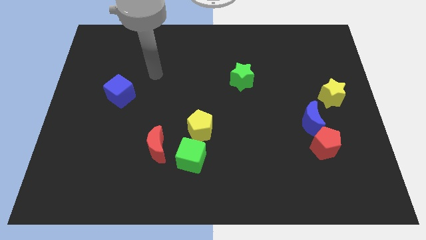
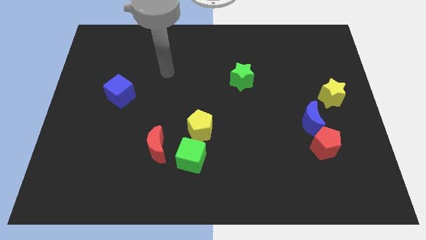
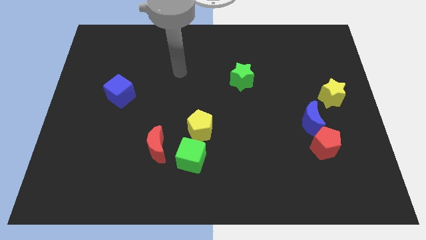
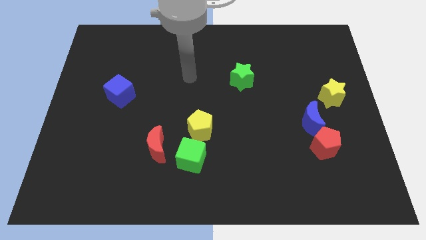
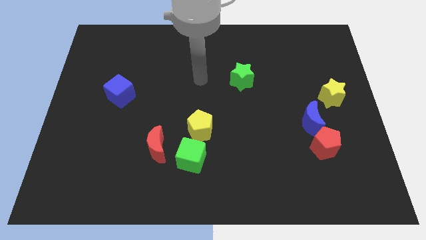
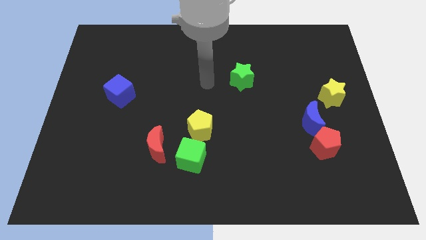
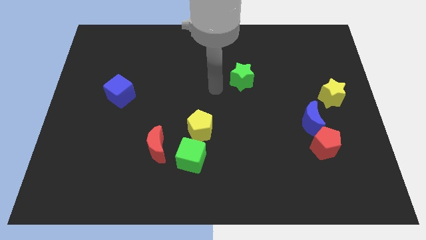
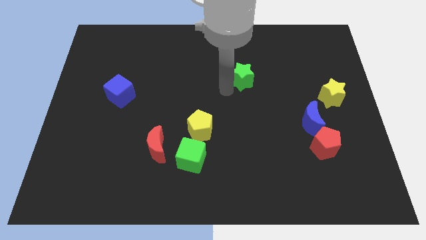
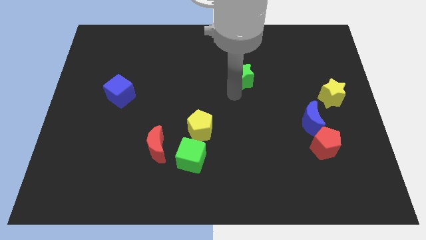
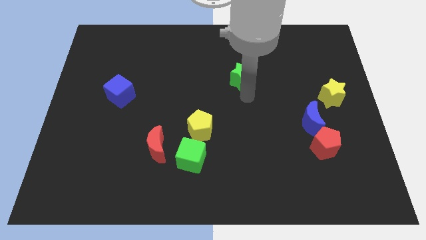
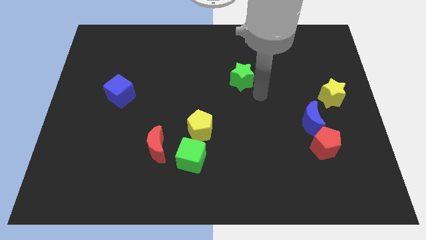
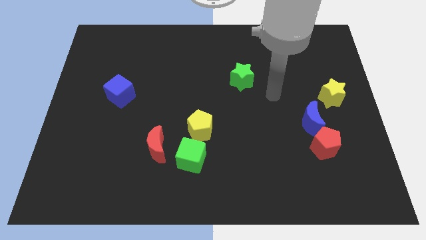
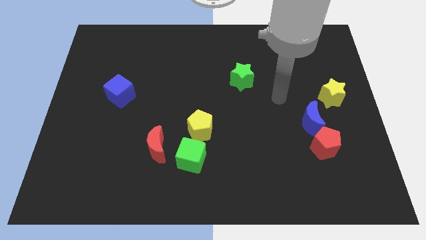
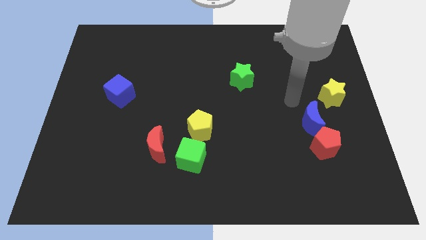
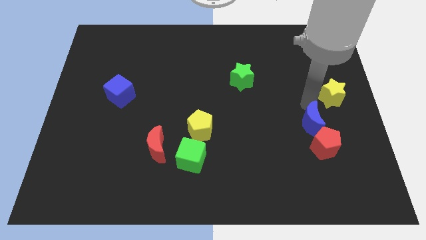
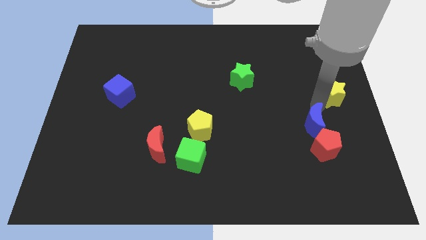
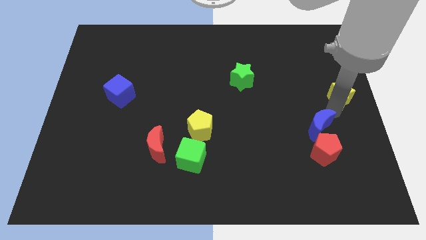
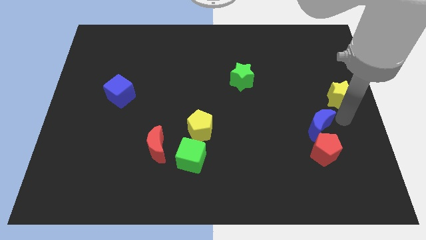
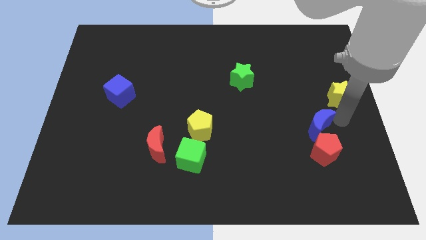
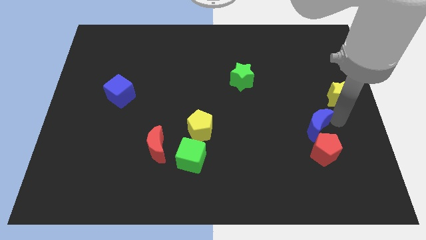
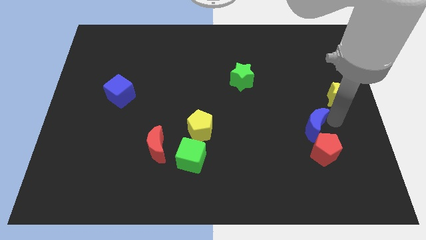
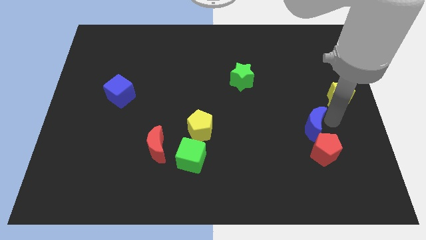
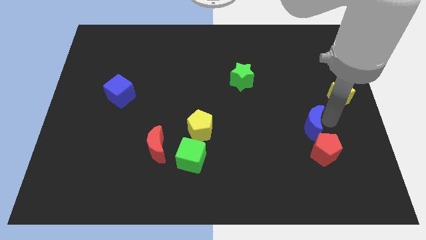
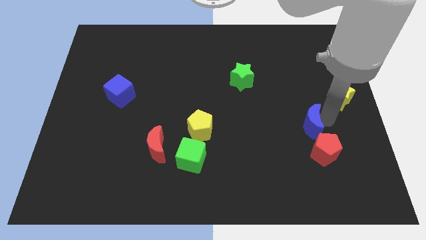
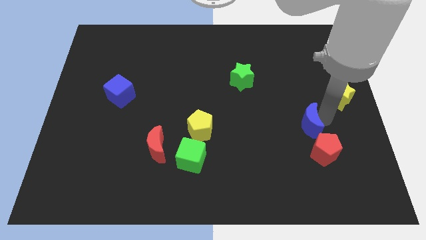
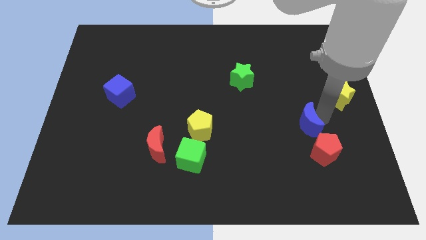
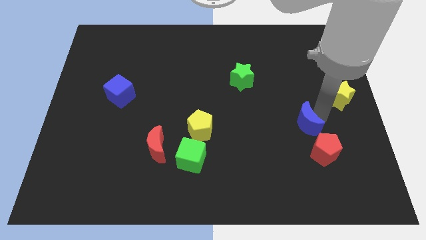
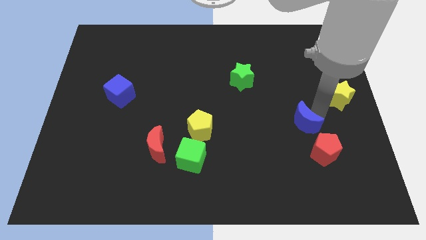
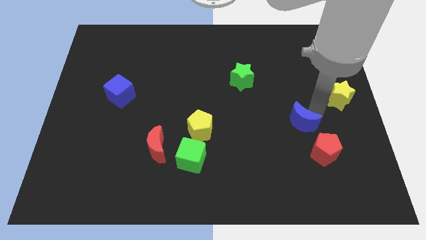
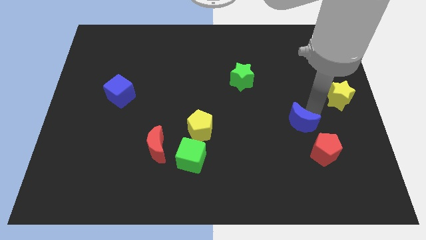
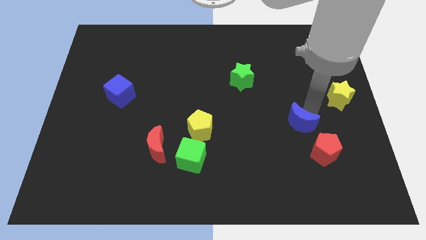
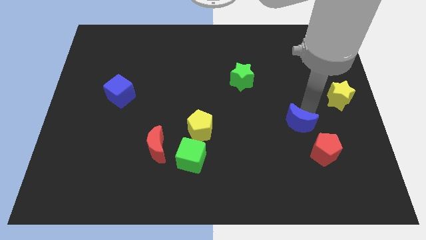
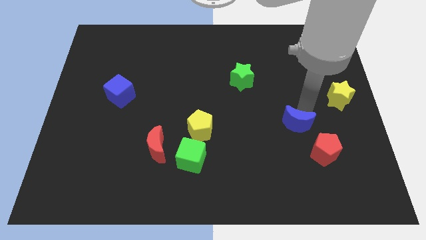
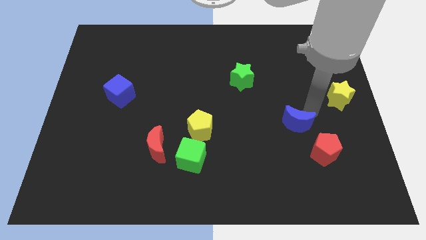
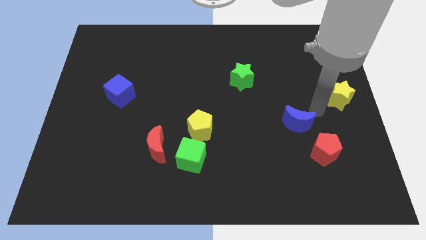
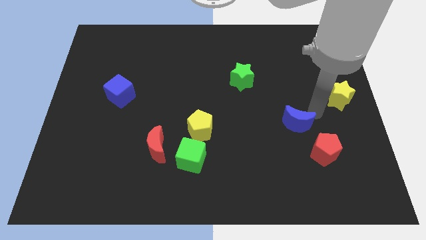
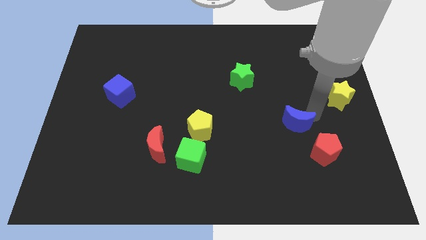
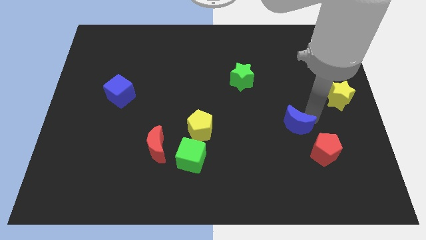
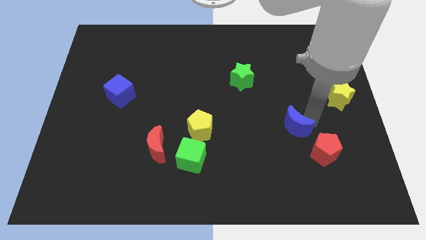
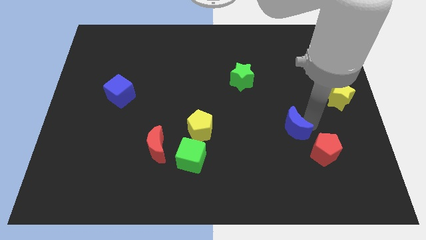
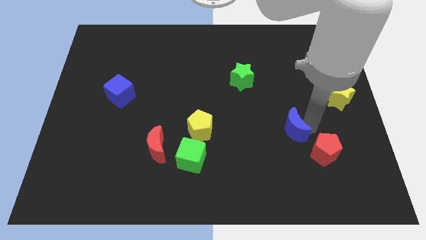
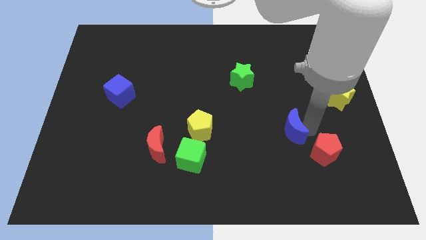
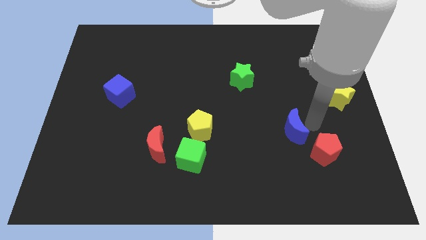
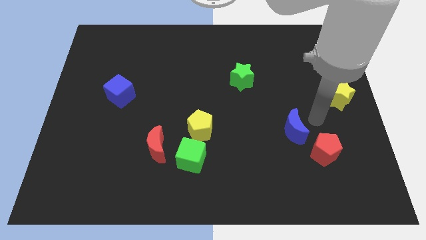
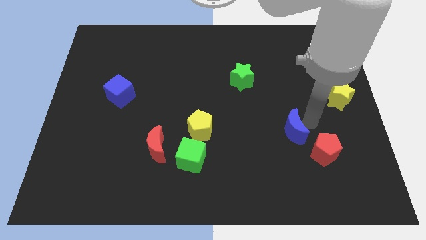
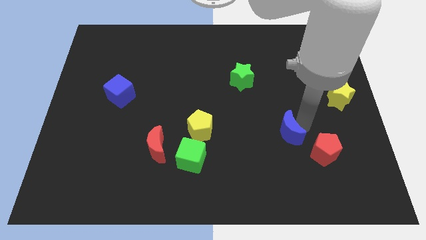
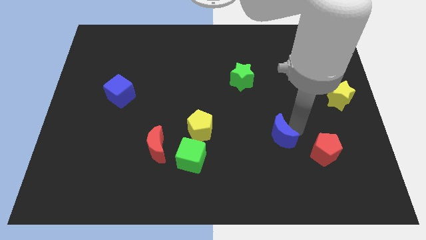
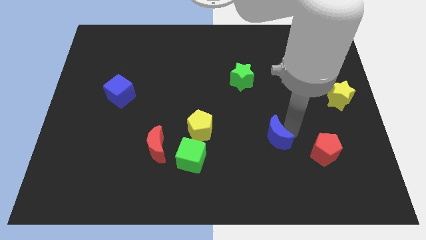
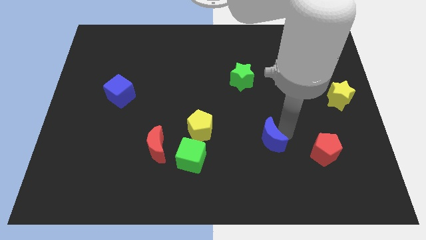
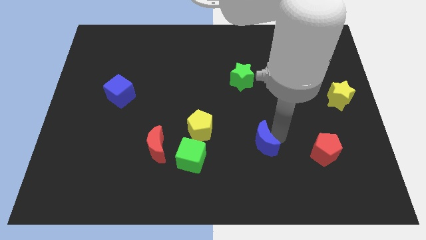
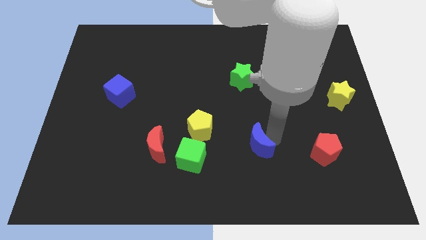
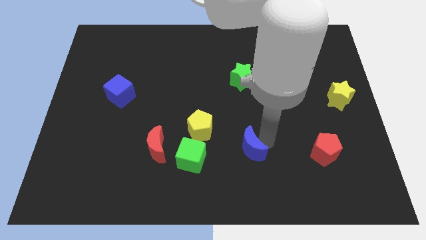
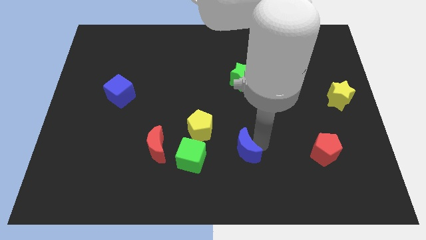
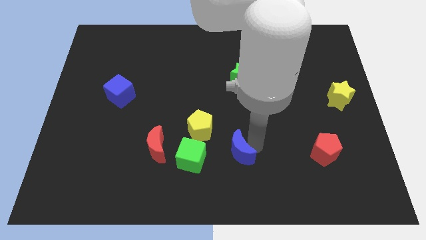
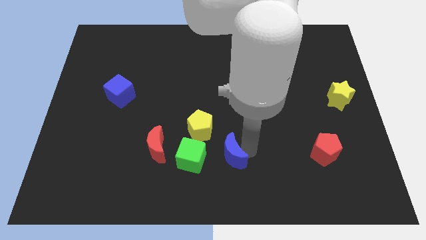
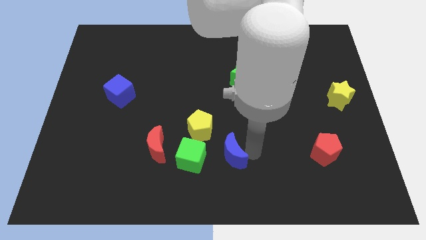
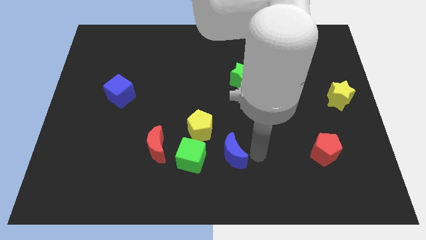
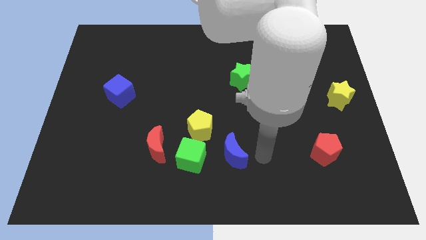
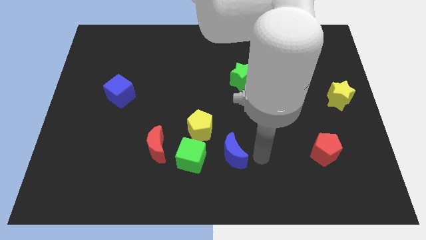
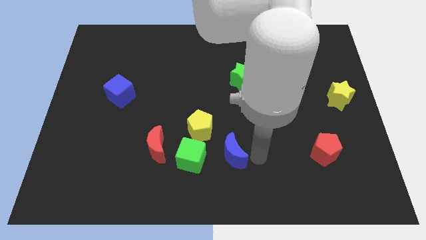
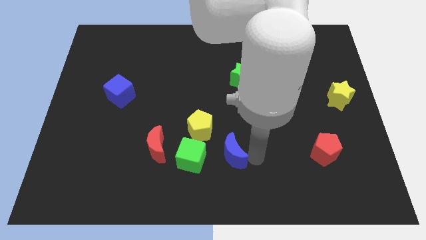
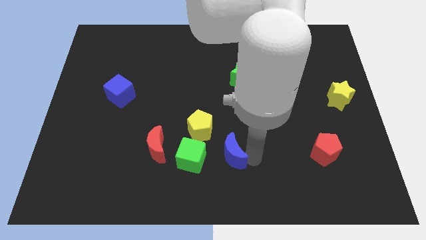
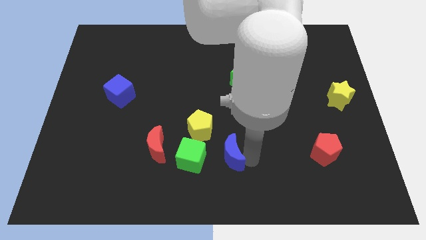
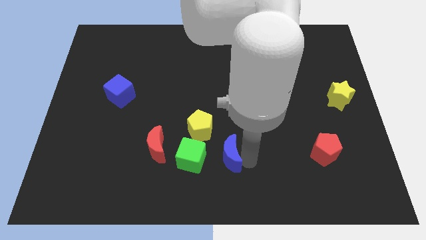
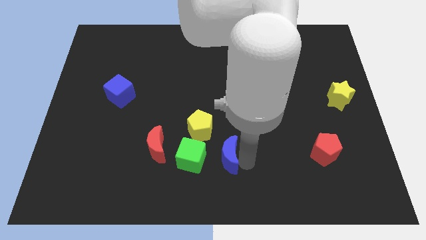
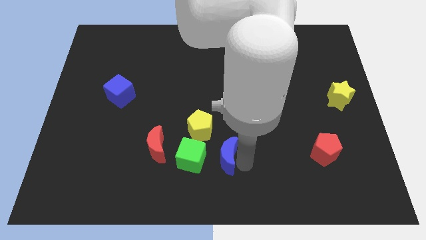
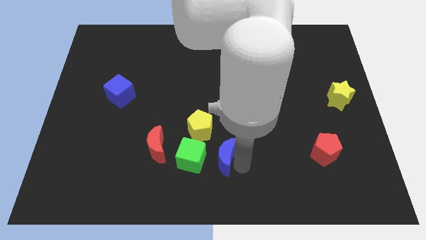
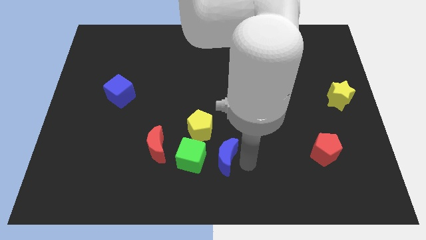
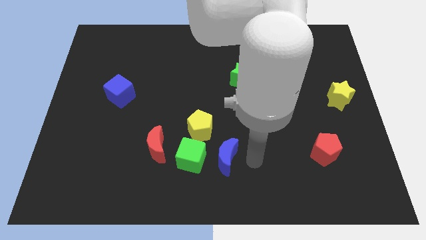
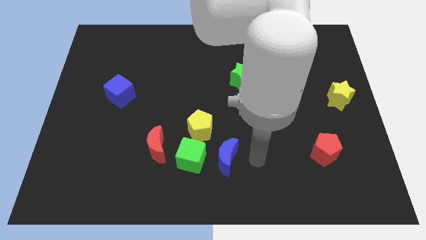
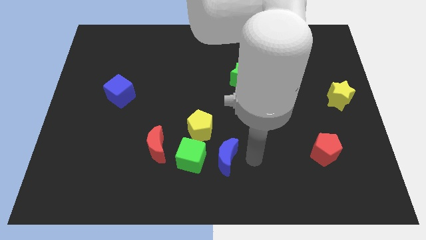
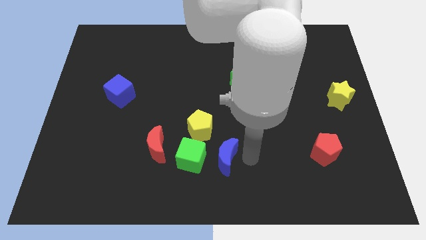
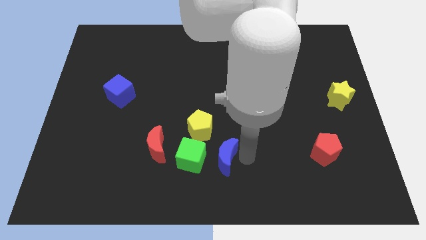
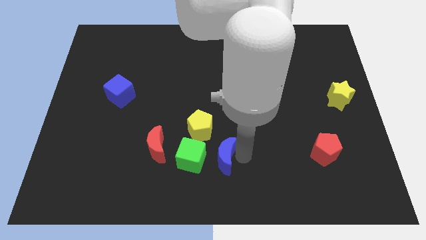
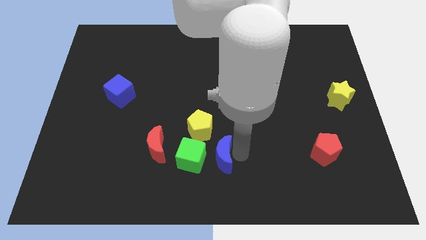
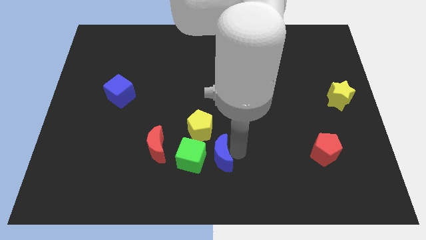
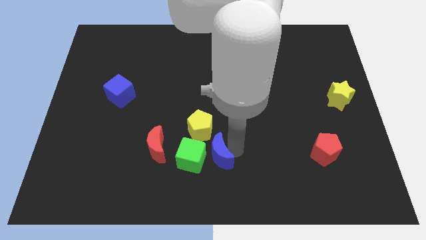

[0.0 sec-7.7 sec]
put the blue moon close to the green cube
